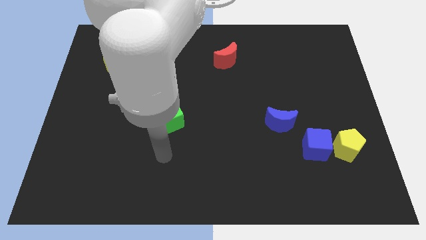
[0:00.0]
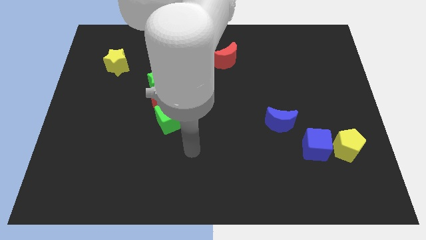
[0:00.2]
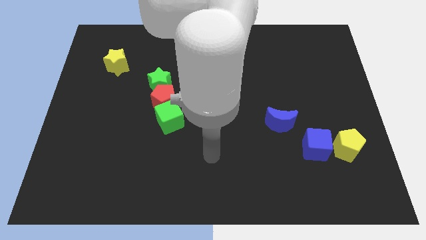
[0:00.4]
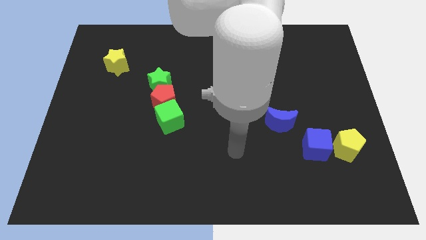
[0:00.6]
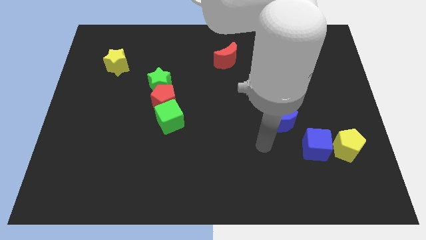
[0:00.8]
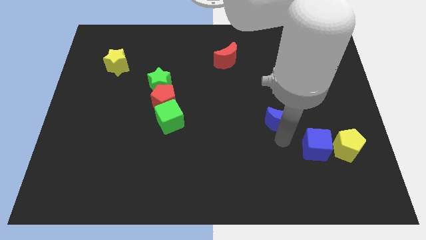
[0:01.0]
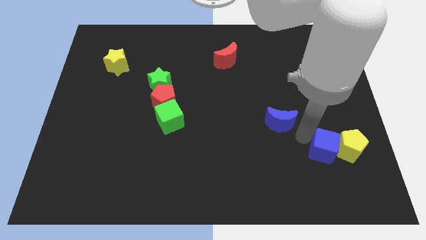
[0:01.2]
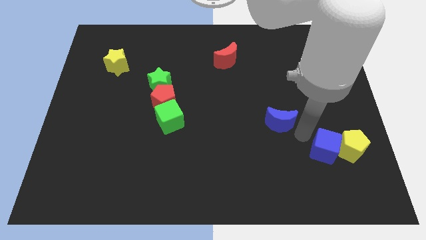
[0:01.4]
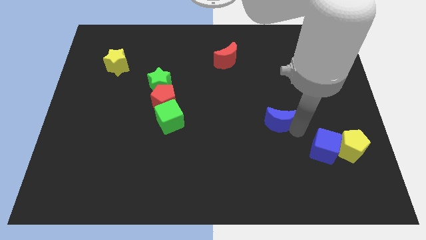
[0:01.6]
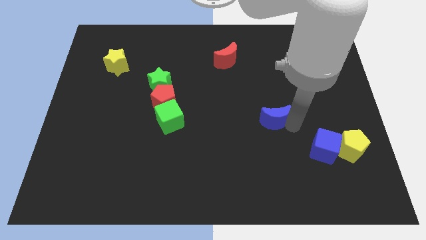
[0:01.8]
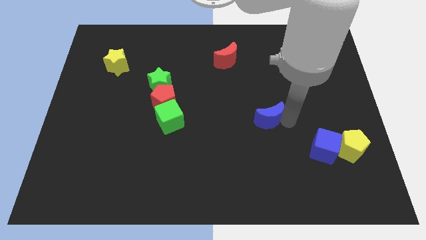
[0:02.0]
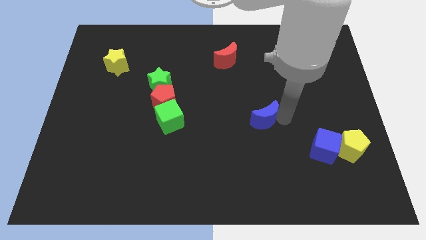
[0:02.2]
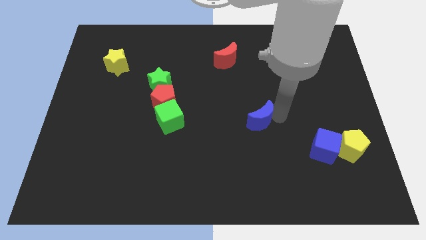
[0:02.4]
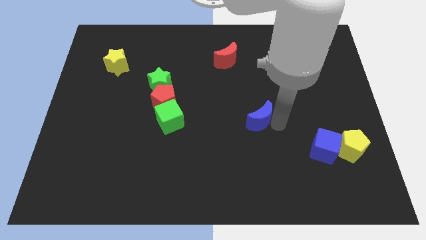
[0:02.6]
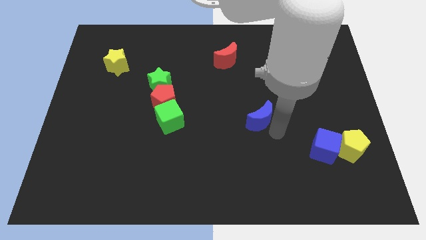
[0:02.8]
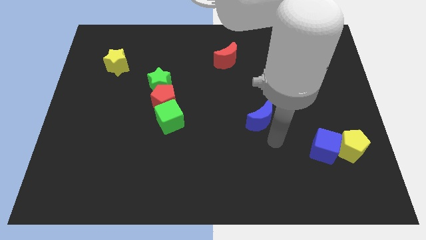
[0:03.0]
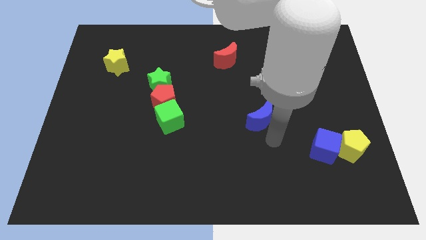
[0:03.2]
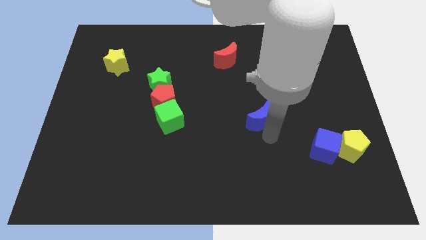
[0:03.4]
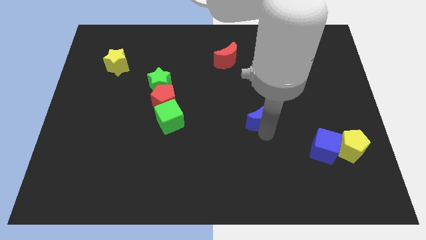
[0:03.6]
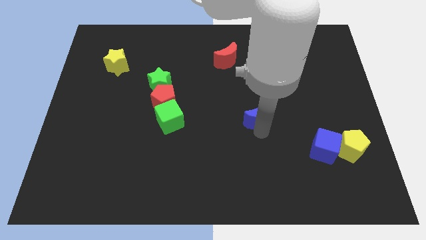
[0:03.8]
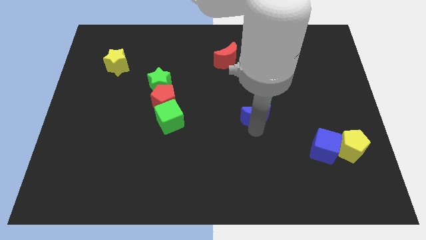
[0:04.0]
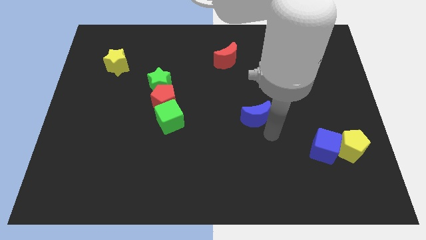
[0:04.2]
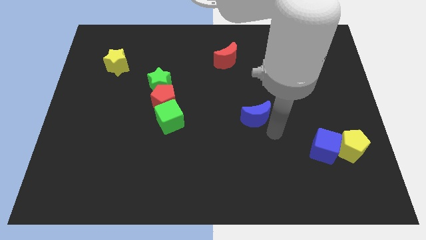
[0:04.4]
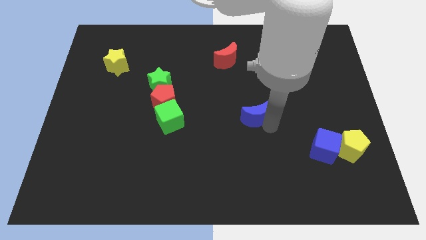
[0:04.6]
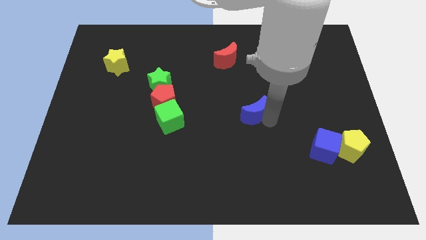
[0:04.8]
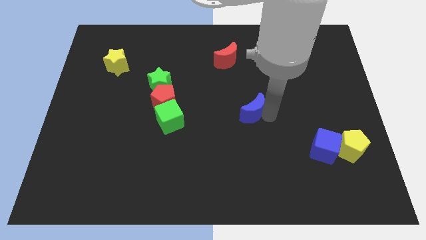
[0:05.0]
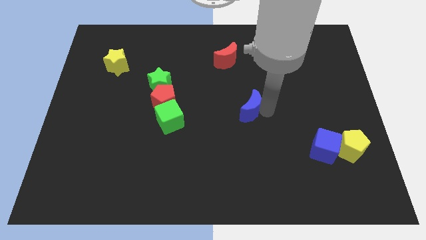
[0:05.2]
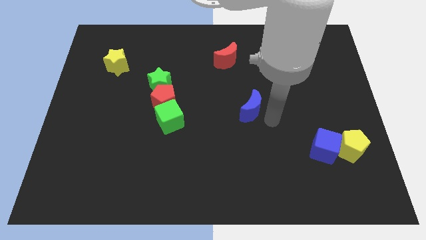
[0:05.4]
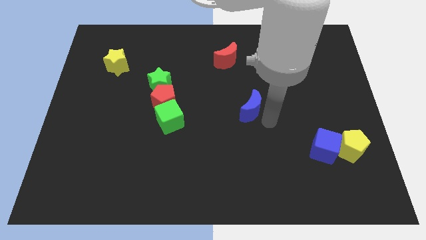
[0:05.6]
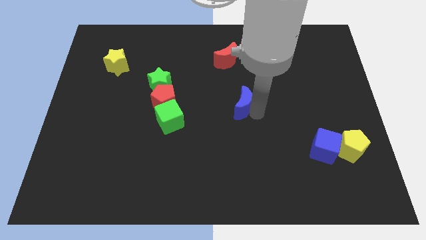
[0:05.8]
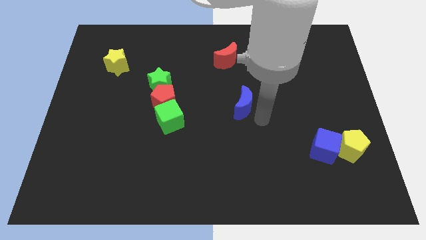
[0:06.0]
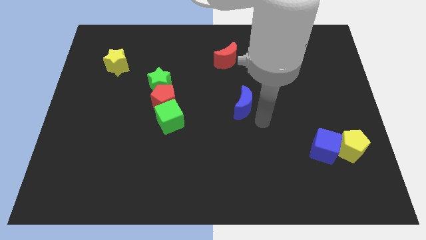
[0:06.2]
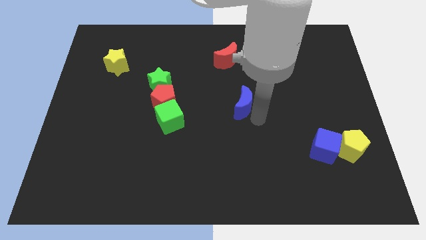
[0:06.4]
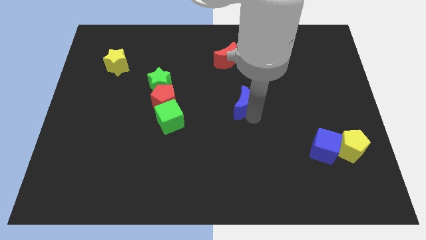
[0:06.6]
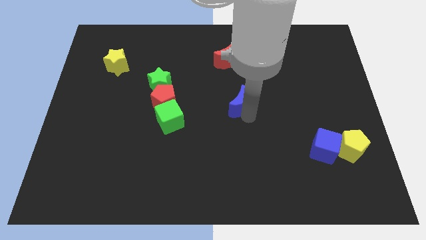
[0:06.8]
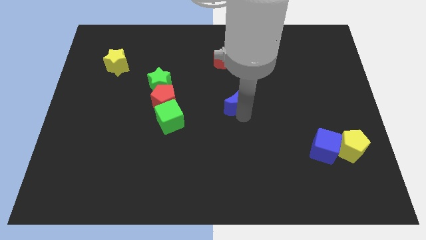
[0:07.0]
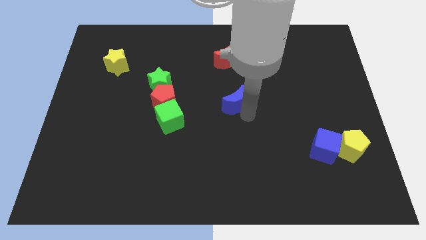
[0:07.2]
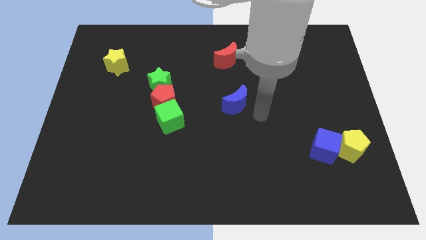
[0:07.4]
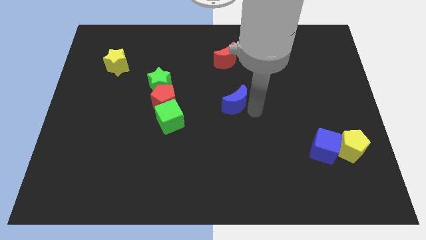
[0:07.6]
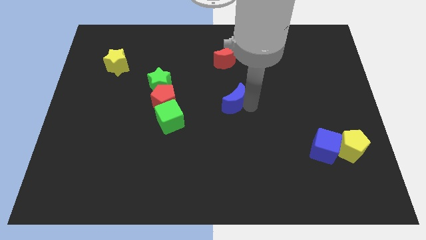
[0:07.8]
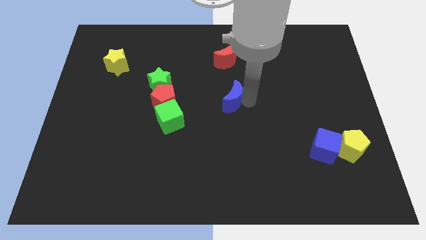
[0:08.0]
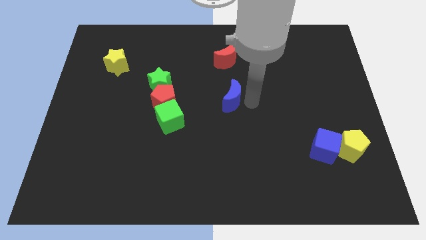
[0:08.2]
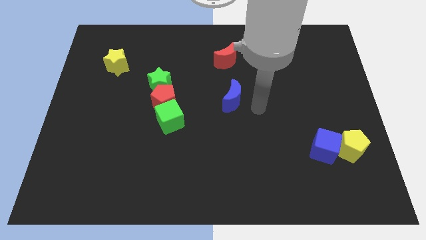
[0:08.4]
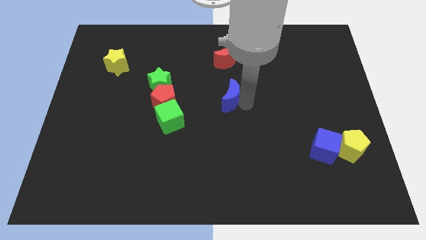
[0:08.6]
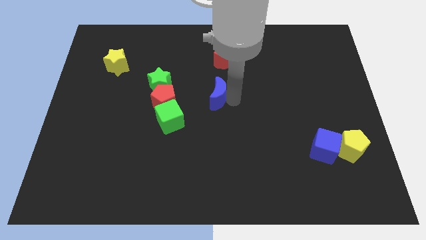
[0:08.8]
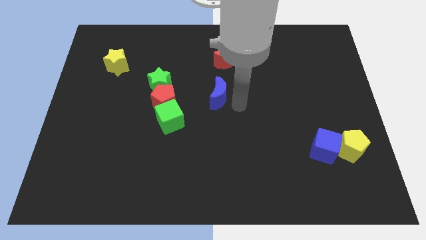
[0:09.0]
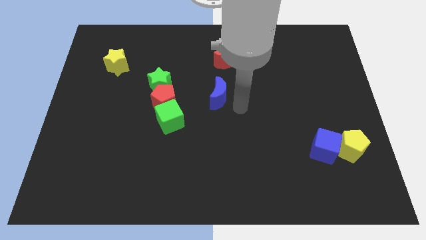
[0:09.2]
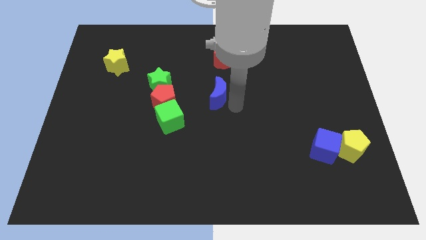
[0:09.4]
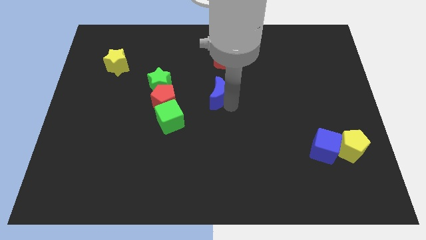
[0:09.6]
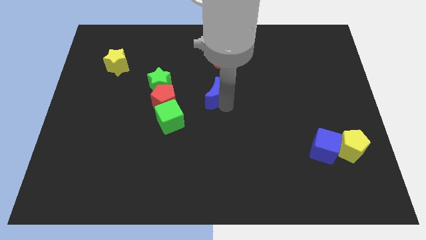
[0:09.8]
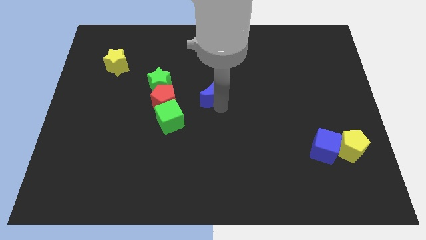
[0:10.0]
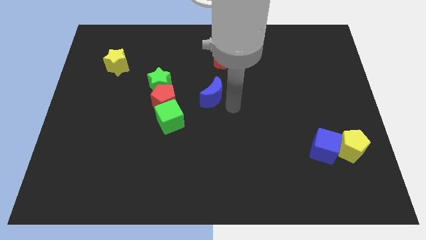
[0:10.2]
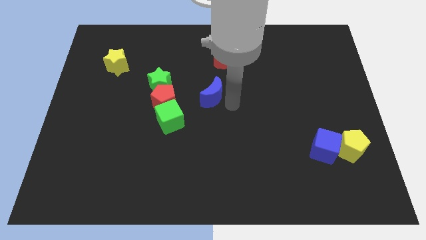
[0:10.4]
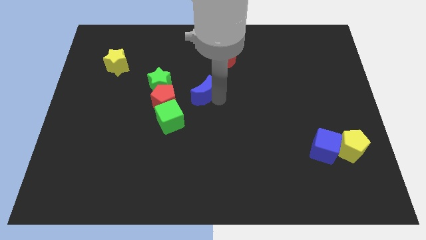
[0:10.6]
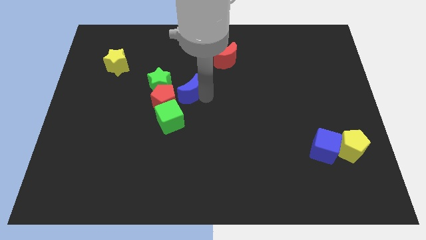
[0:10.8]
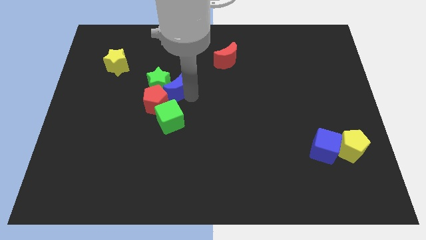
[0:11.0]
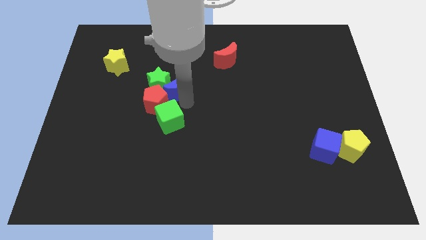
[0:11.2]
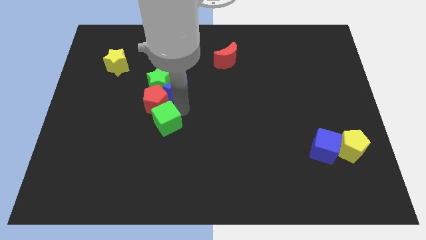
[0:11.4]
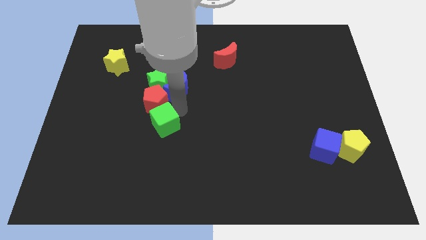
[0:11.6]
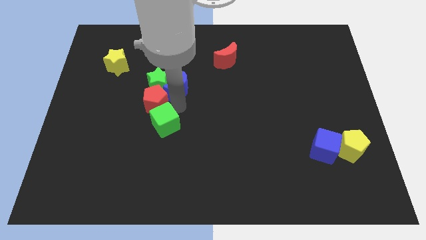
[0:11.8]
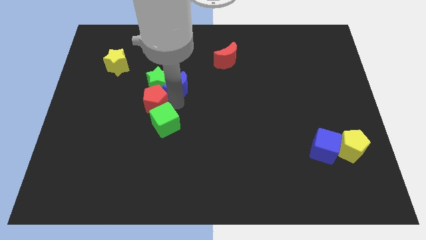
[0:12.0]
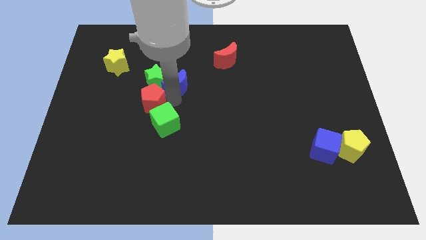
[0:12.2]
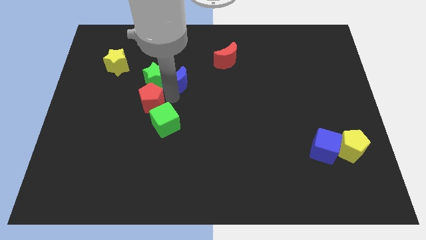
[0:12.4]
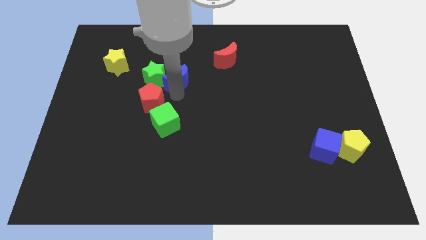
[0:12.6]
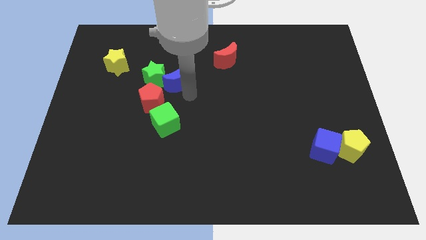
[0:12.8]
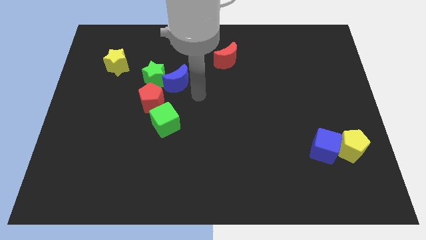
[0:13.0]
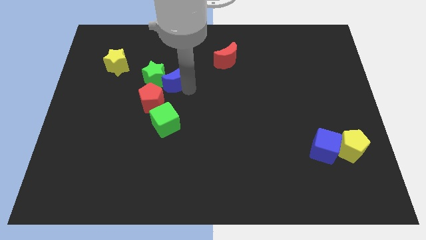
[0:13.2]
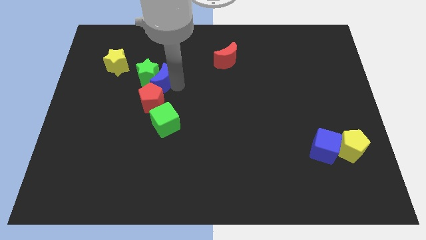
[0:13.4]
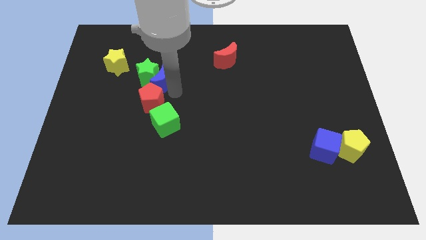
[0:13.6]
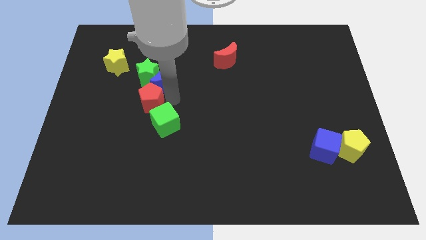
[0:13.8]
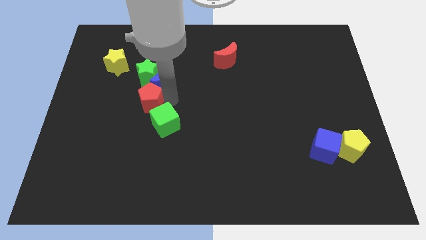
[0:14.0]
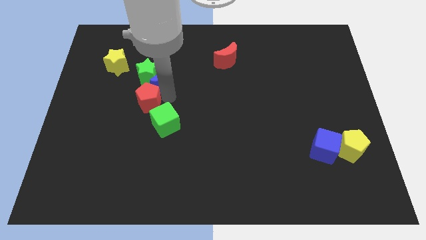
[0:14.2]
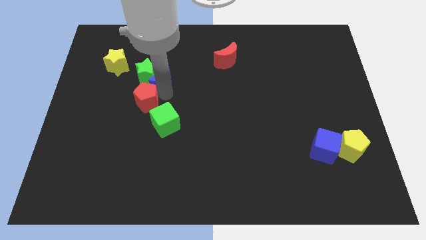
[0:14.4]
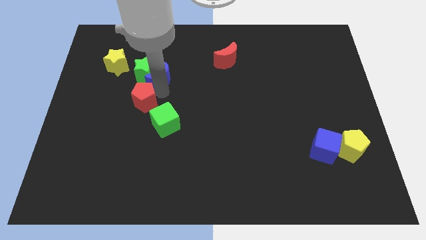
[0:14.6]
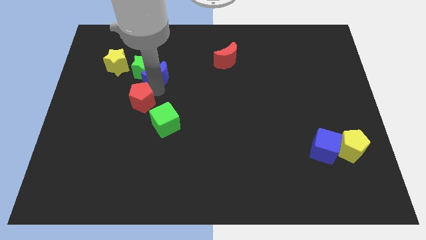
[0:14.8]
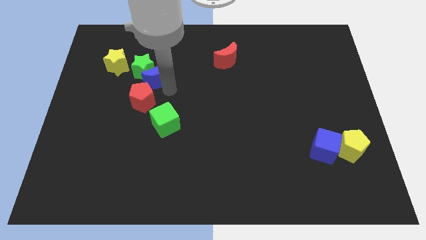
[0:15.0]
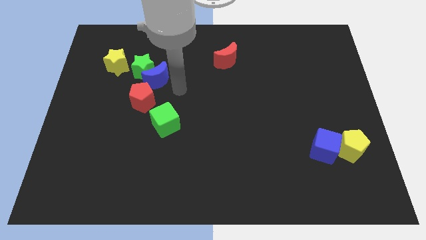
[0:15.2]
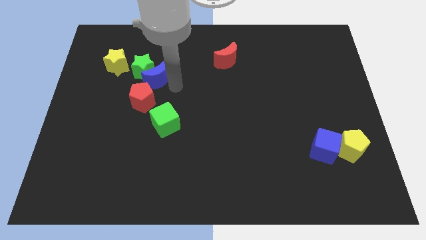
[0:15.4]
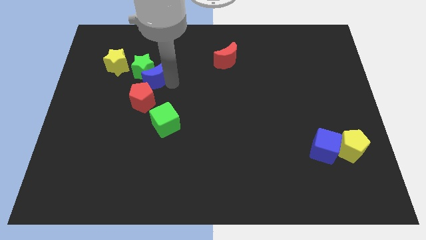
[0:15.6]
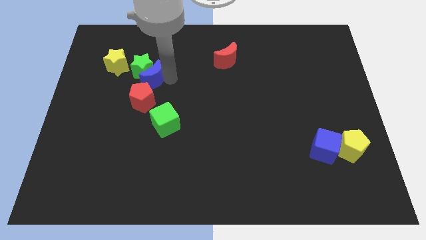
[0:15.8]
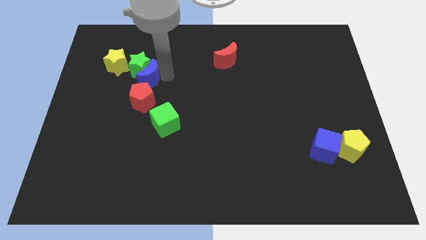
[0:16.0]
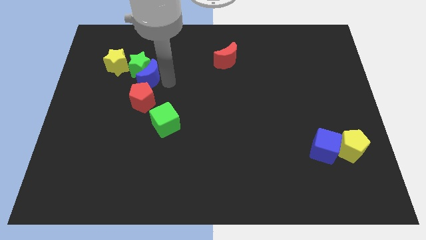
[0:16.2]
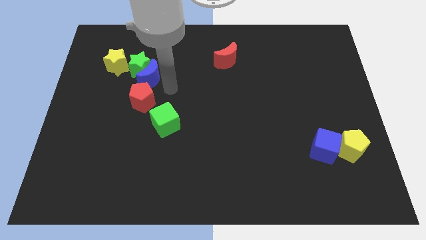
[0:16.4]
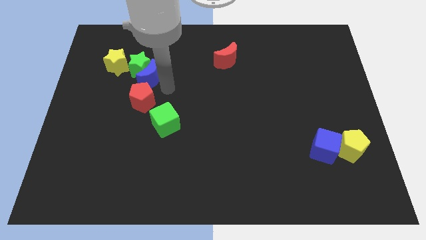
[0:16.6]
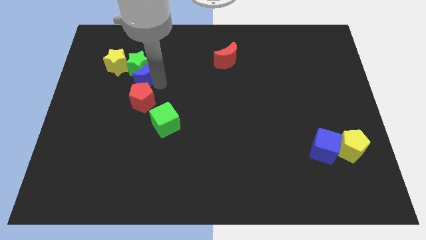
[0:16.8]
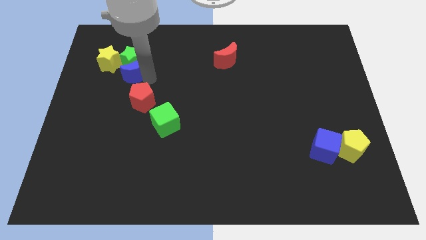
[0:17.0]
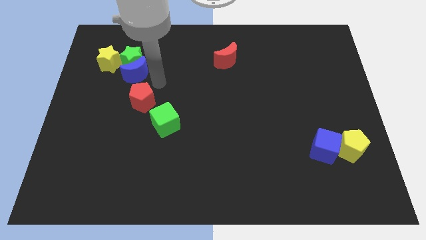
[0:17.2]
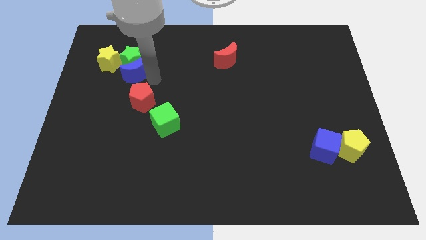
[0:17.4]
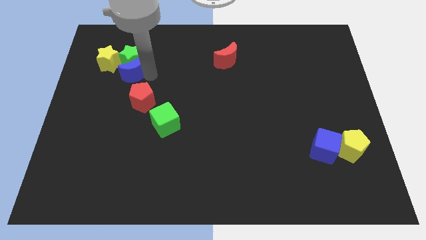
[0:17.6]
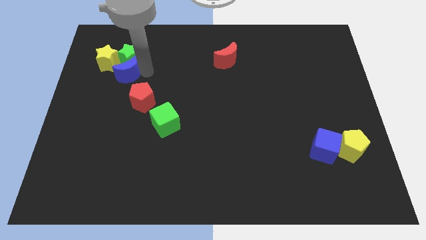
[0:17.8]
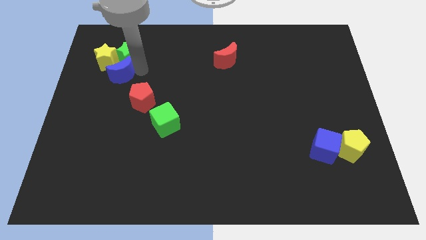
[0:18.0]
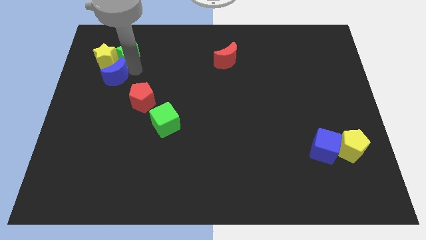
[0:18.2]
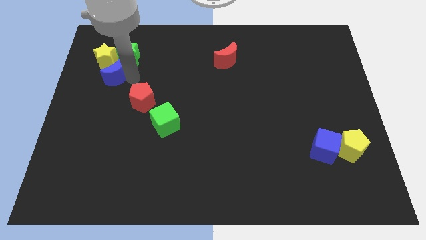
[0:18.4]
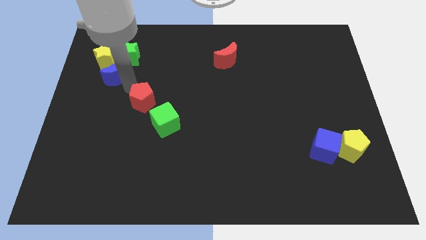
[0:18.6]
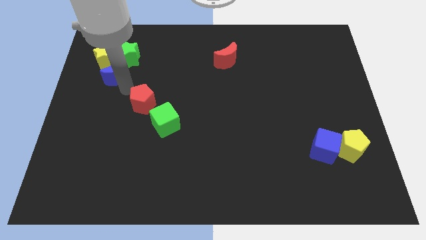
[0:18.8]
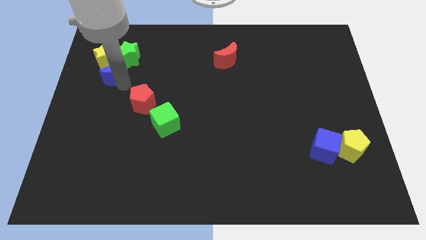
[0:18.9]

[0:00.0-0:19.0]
move the blue moon close to the yellow star
